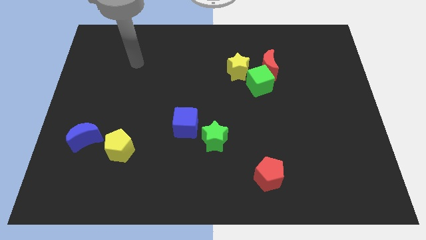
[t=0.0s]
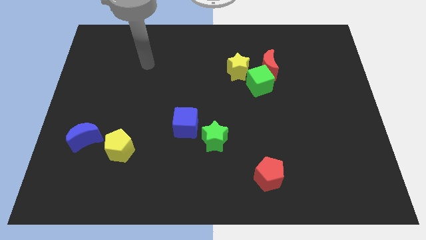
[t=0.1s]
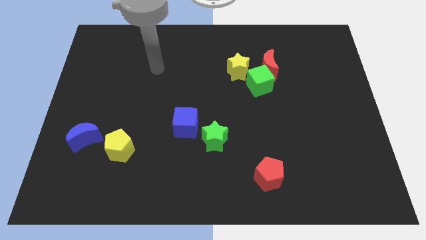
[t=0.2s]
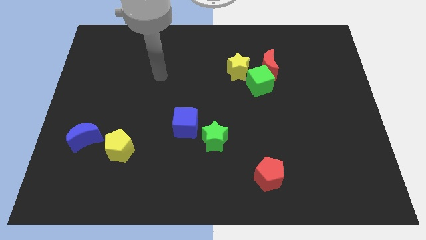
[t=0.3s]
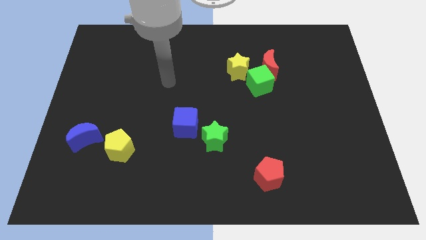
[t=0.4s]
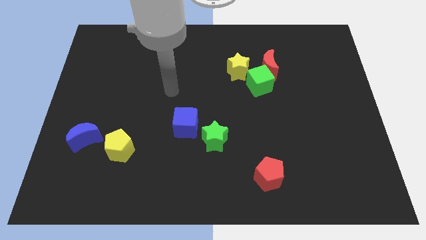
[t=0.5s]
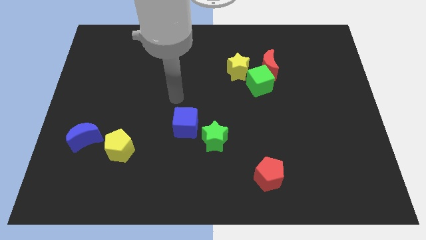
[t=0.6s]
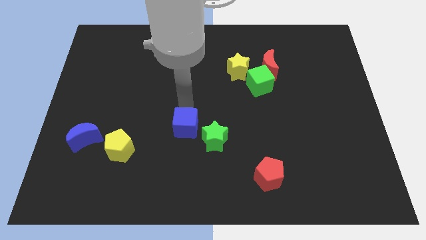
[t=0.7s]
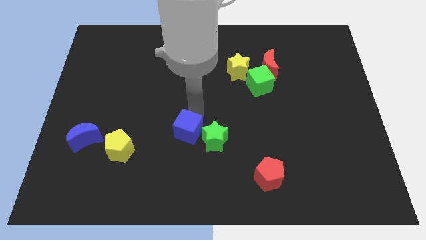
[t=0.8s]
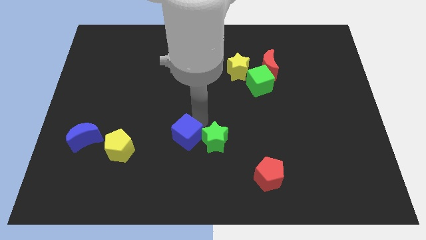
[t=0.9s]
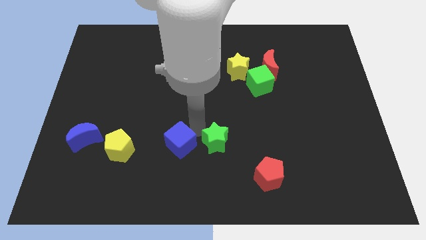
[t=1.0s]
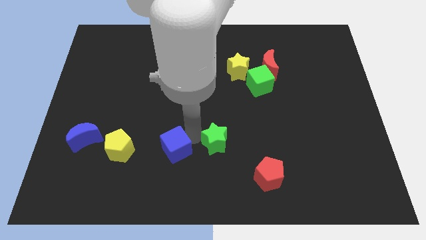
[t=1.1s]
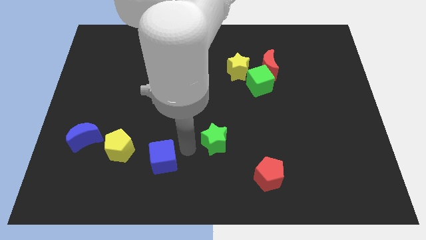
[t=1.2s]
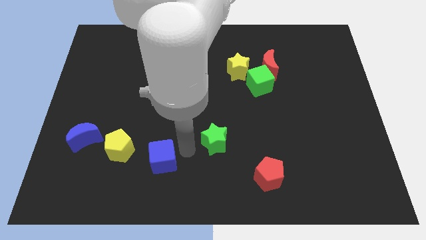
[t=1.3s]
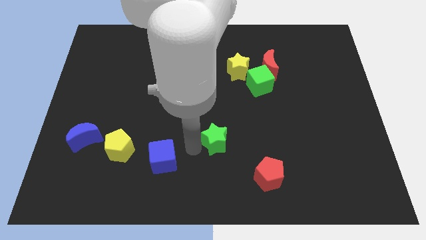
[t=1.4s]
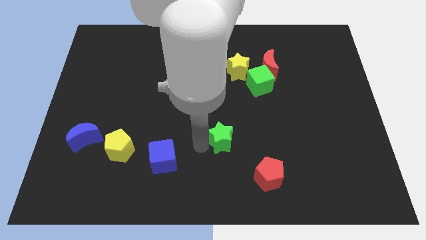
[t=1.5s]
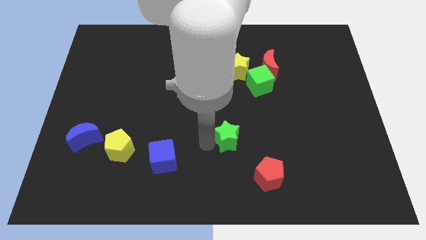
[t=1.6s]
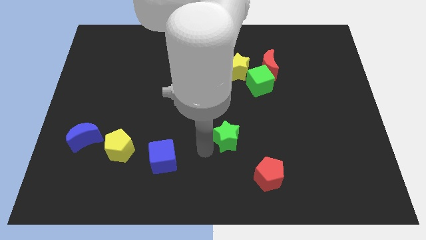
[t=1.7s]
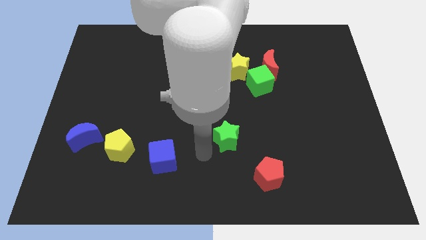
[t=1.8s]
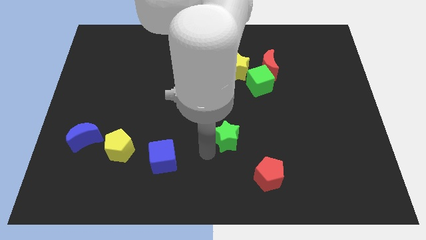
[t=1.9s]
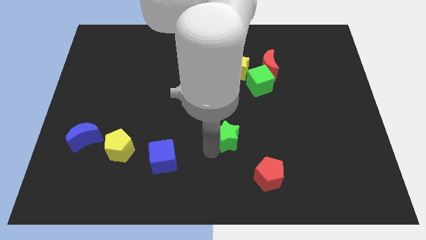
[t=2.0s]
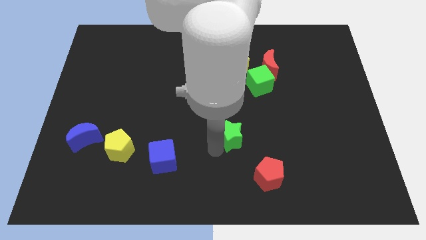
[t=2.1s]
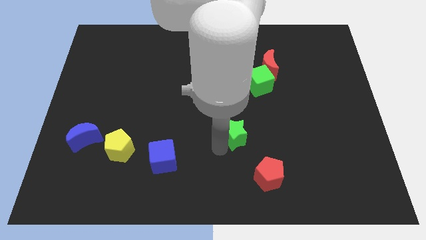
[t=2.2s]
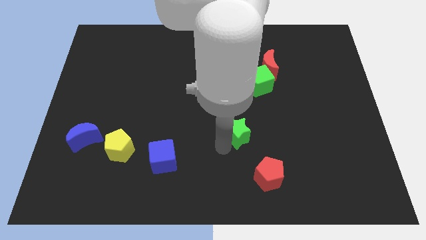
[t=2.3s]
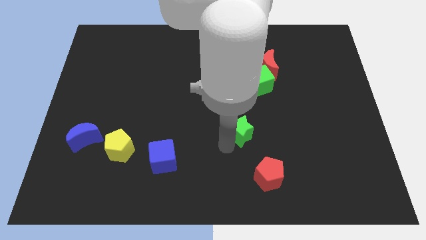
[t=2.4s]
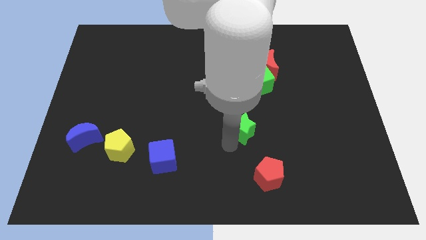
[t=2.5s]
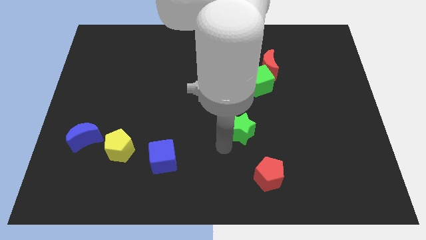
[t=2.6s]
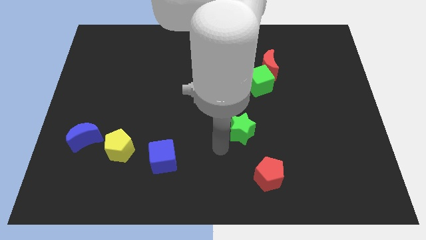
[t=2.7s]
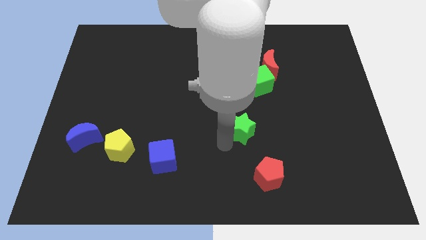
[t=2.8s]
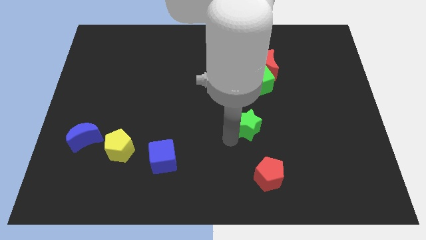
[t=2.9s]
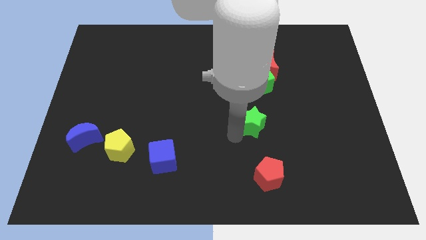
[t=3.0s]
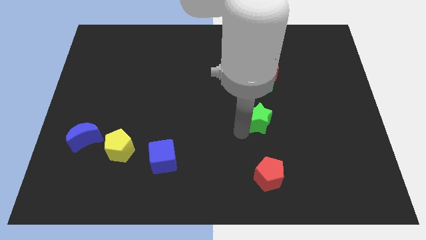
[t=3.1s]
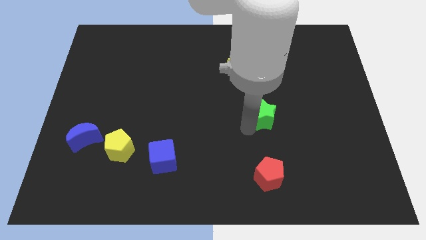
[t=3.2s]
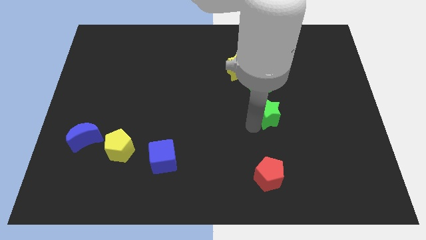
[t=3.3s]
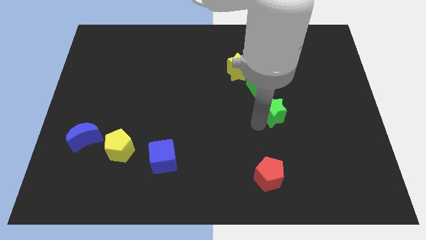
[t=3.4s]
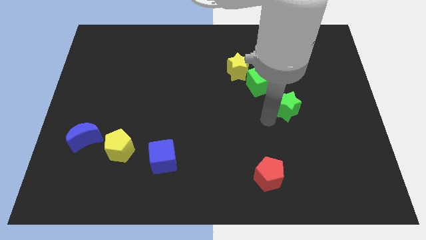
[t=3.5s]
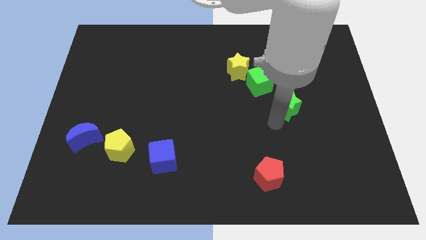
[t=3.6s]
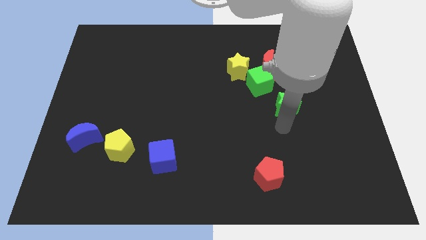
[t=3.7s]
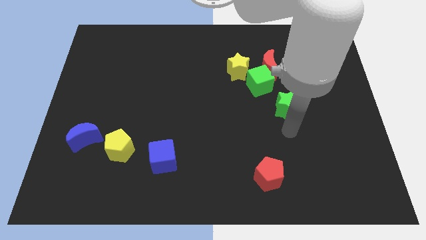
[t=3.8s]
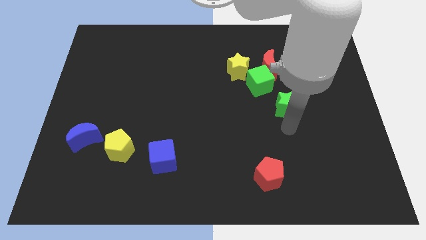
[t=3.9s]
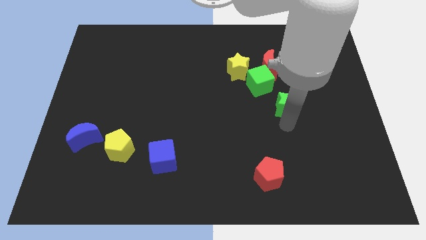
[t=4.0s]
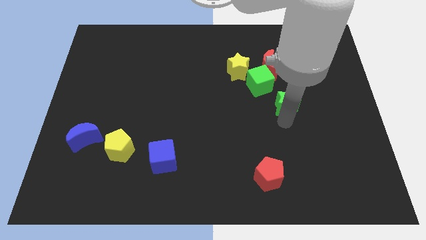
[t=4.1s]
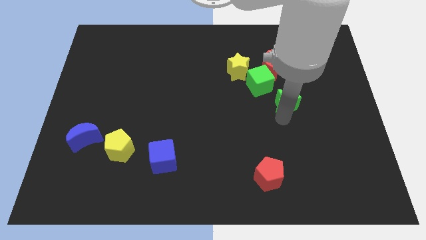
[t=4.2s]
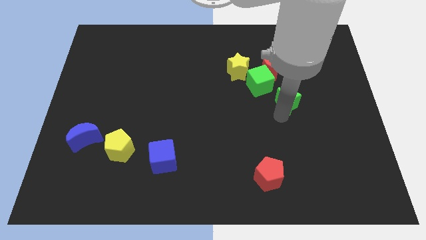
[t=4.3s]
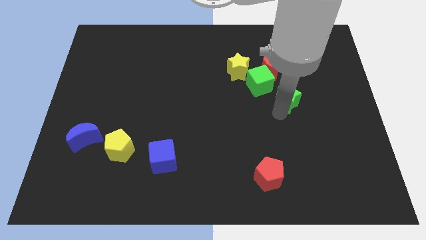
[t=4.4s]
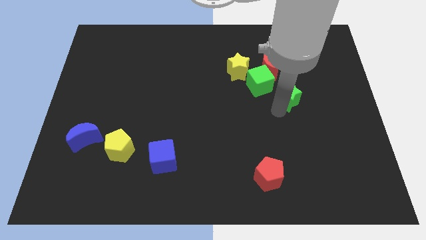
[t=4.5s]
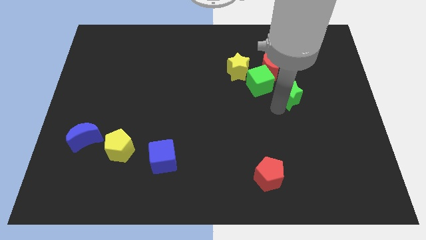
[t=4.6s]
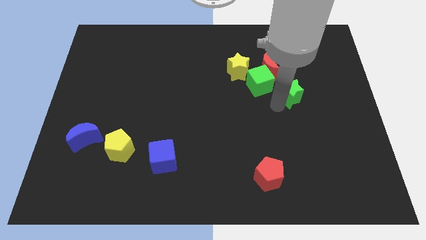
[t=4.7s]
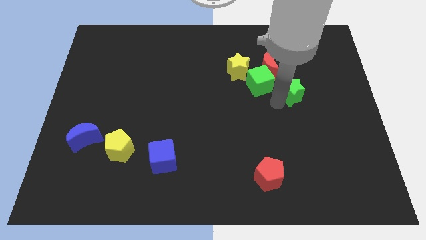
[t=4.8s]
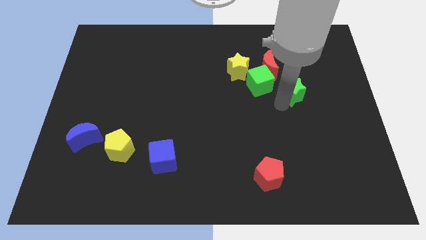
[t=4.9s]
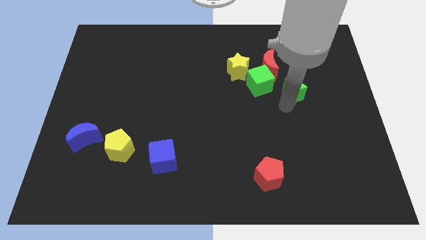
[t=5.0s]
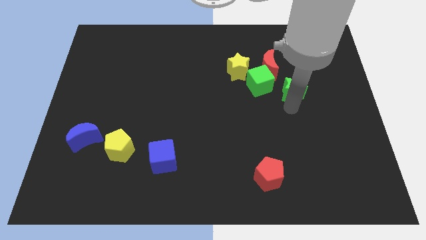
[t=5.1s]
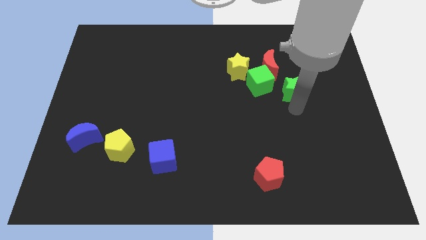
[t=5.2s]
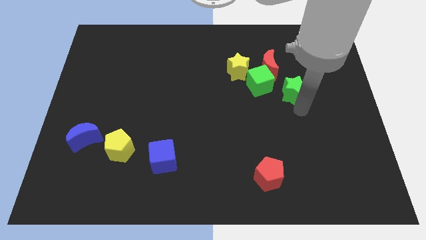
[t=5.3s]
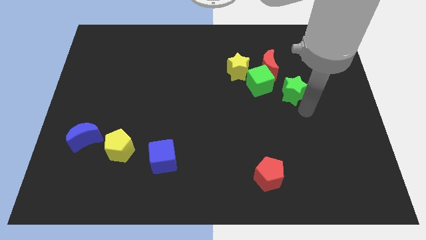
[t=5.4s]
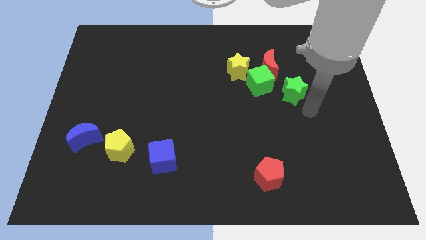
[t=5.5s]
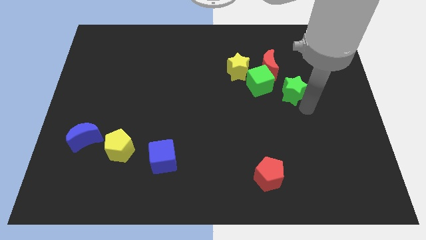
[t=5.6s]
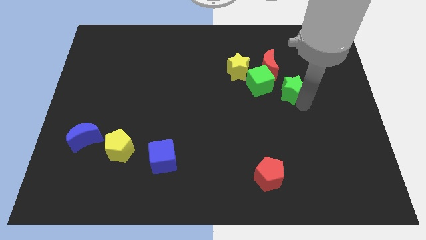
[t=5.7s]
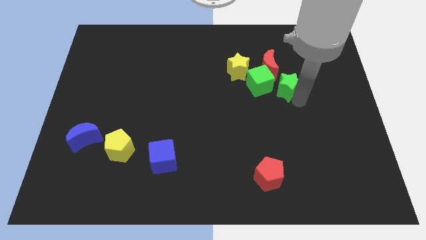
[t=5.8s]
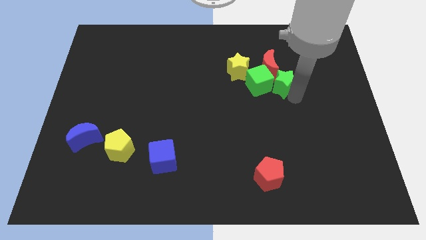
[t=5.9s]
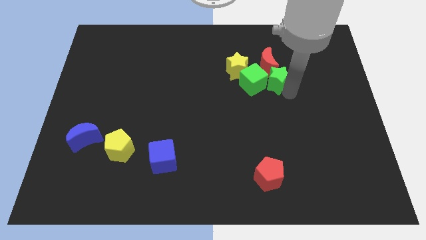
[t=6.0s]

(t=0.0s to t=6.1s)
slide the green star close to the red moon

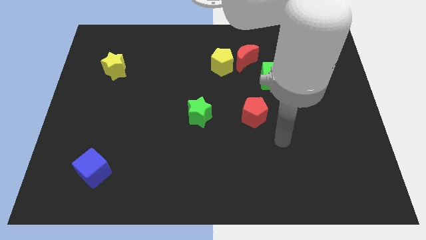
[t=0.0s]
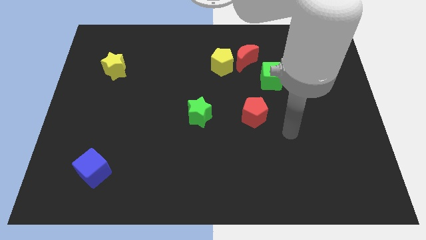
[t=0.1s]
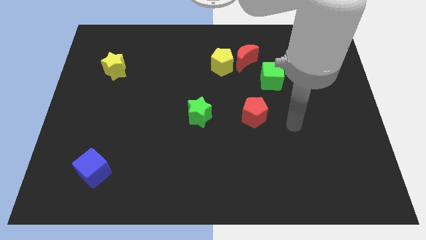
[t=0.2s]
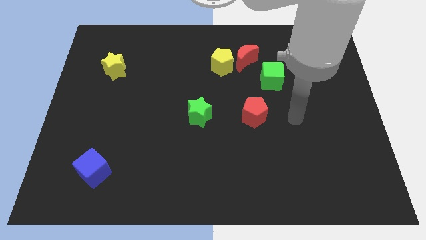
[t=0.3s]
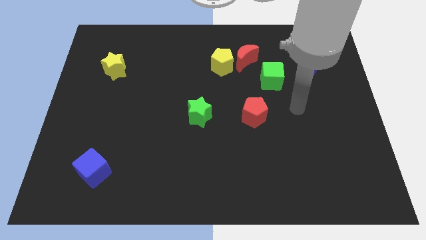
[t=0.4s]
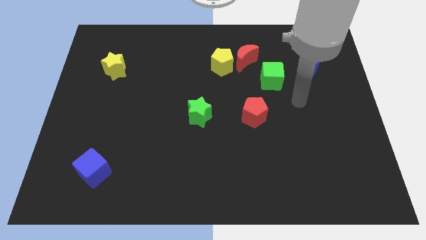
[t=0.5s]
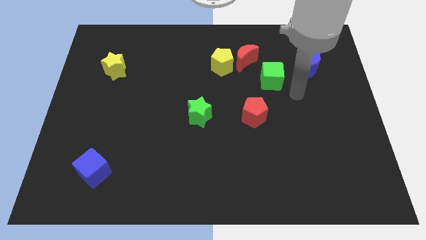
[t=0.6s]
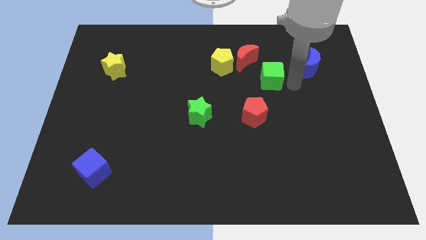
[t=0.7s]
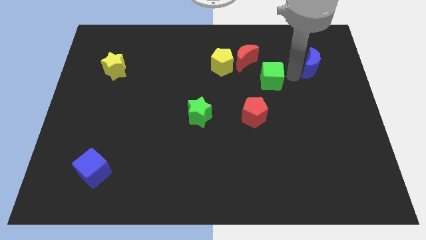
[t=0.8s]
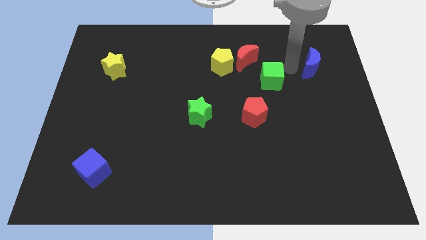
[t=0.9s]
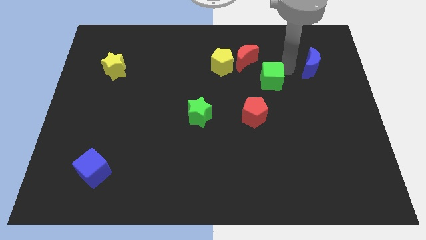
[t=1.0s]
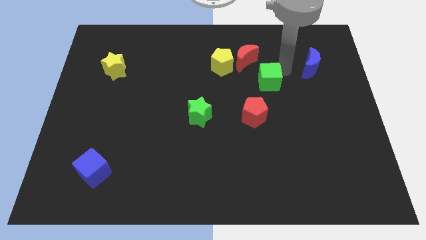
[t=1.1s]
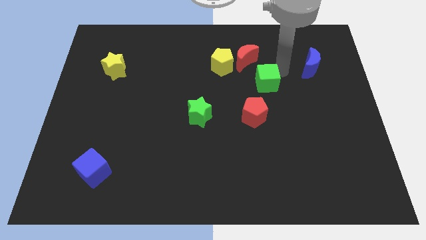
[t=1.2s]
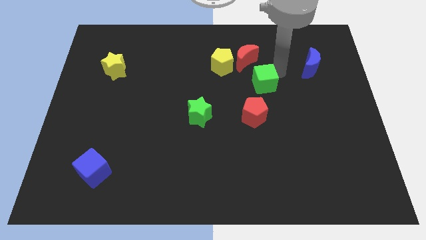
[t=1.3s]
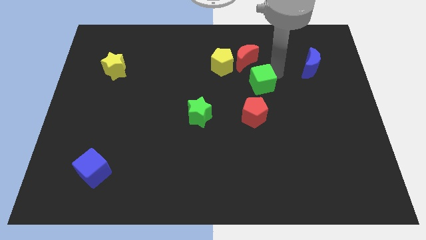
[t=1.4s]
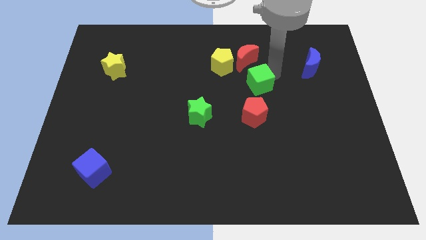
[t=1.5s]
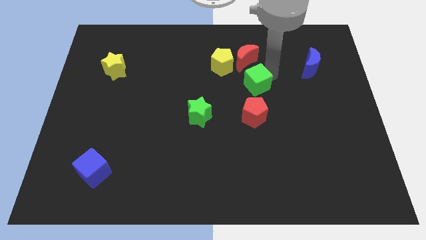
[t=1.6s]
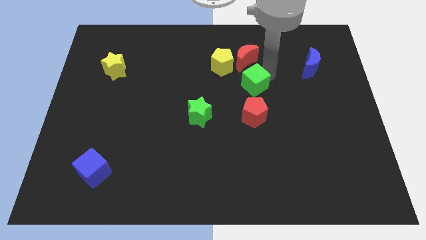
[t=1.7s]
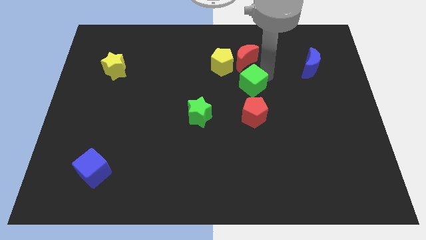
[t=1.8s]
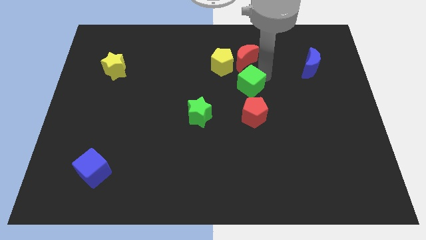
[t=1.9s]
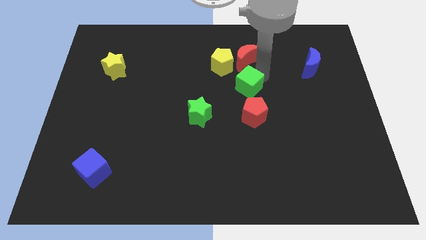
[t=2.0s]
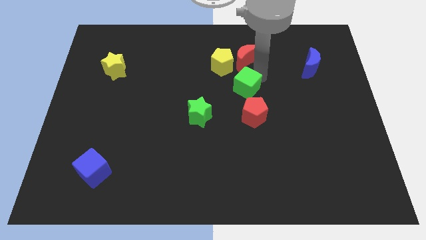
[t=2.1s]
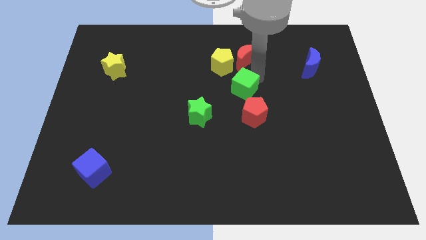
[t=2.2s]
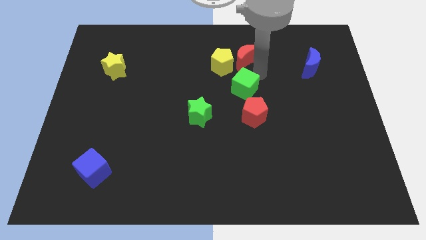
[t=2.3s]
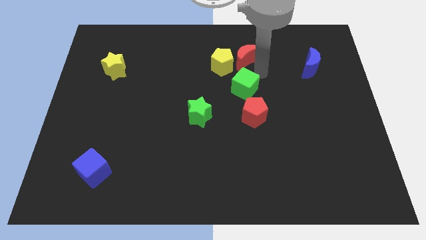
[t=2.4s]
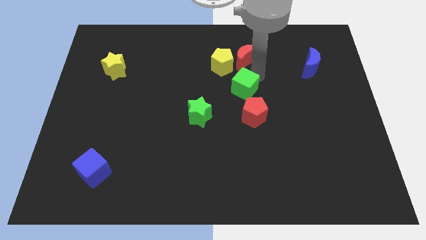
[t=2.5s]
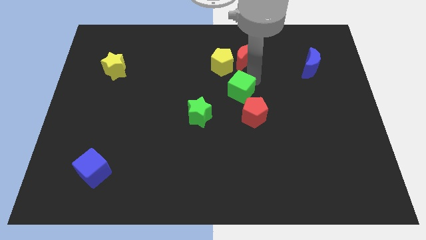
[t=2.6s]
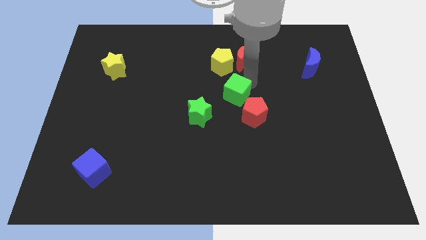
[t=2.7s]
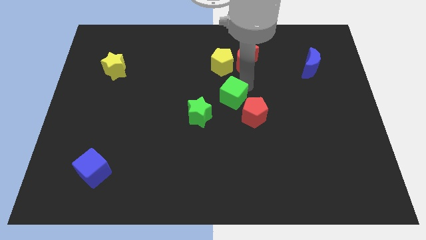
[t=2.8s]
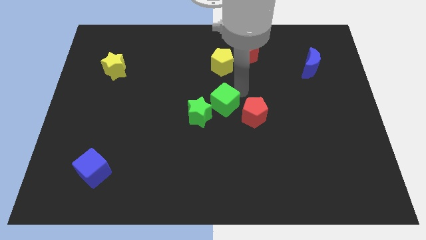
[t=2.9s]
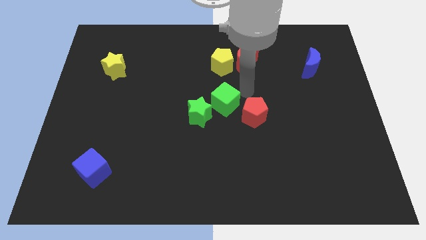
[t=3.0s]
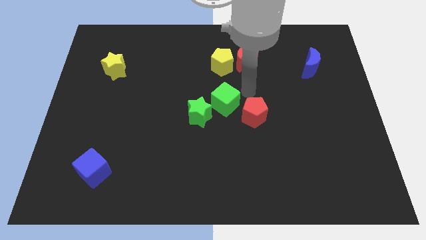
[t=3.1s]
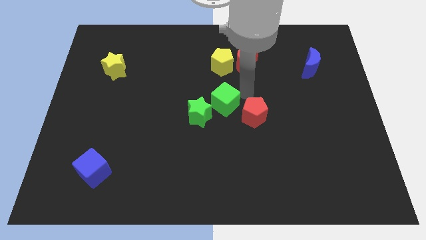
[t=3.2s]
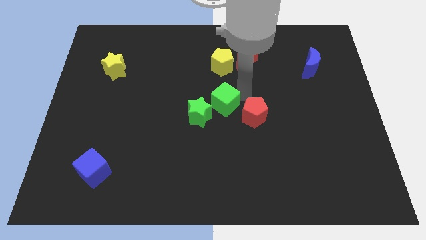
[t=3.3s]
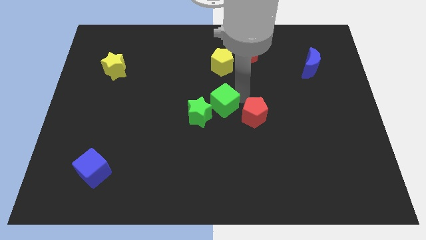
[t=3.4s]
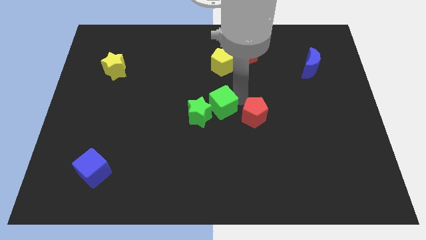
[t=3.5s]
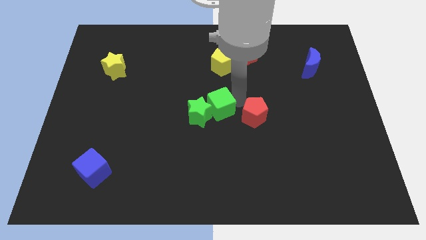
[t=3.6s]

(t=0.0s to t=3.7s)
slide the green cube towards the green star
